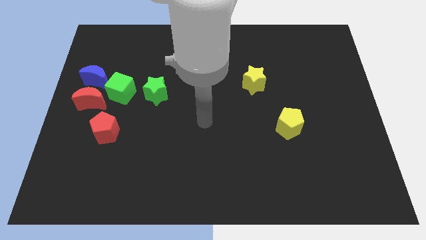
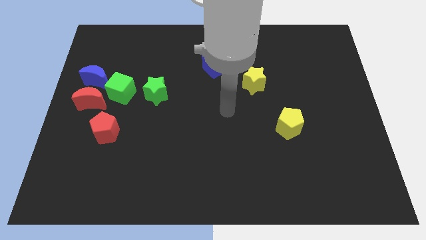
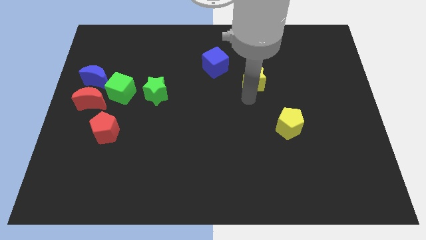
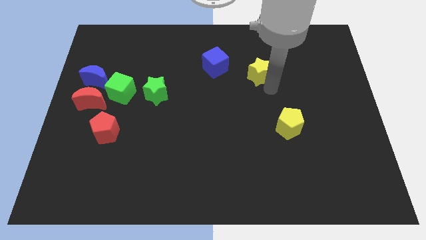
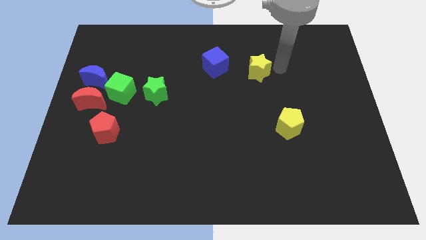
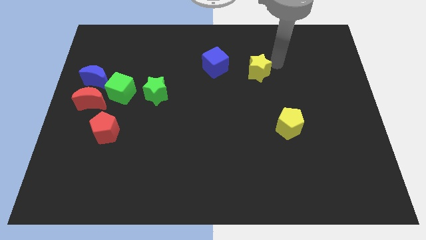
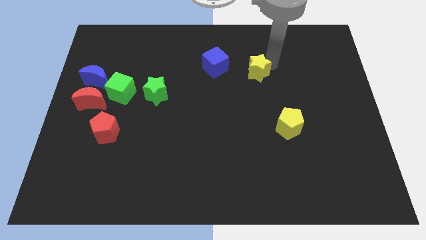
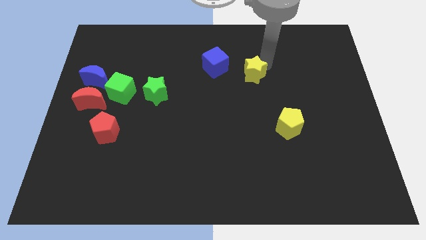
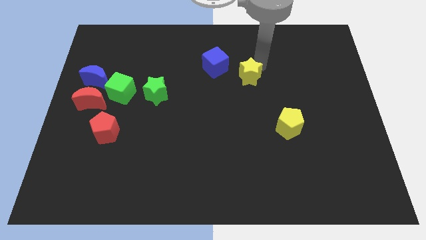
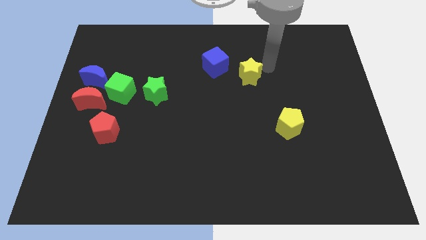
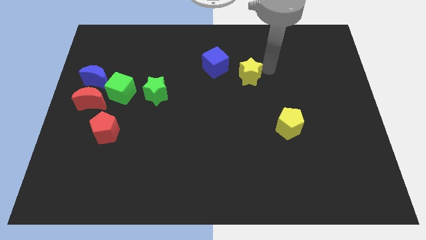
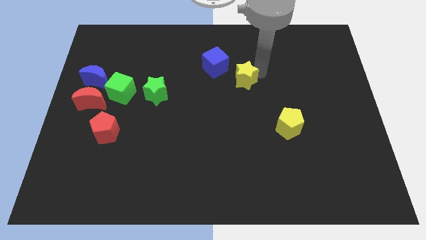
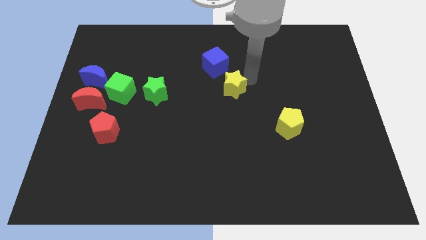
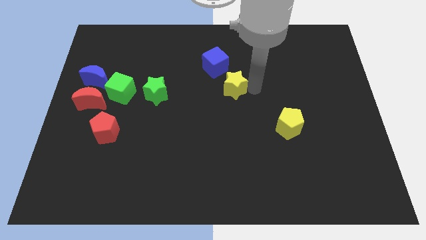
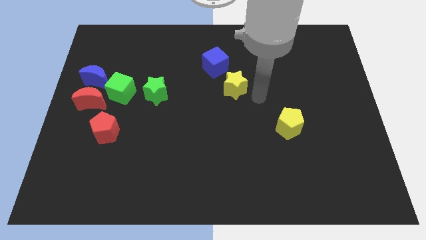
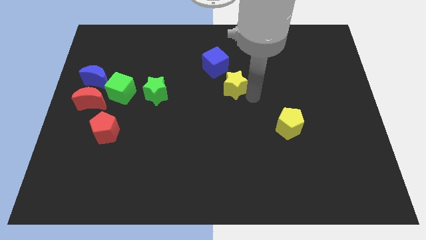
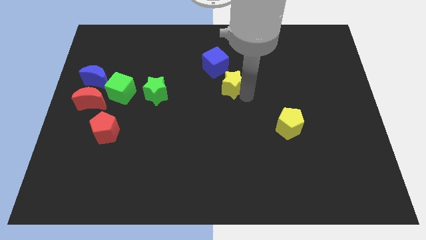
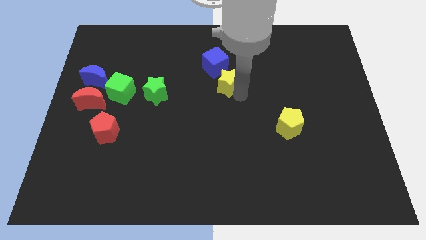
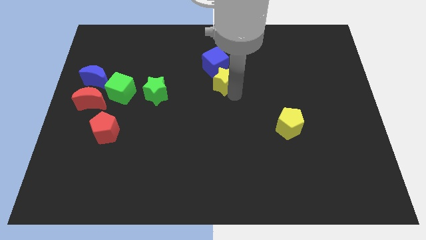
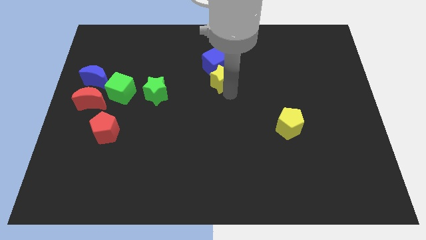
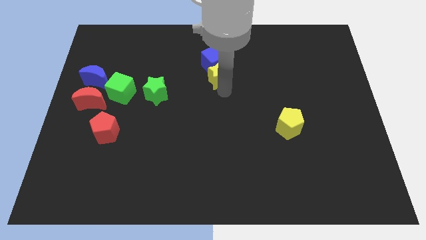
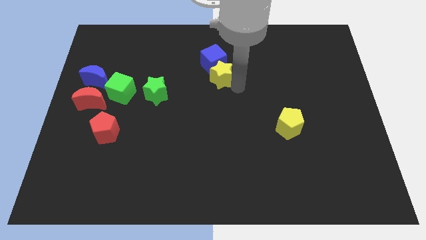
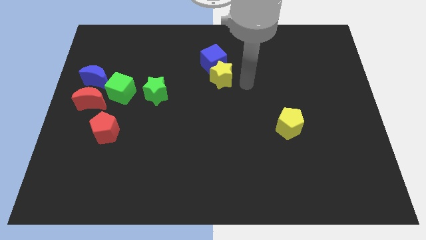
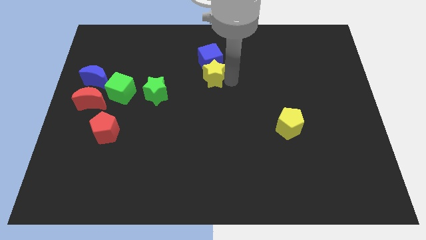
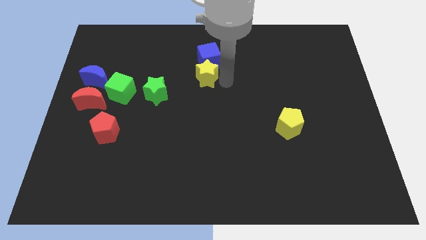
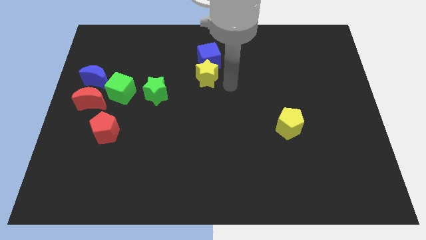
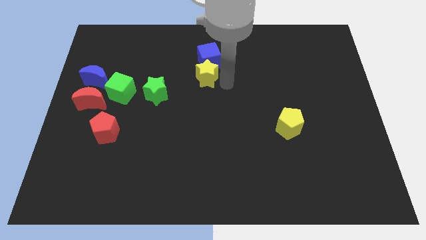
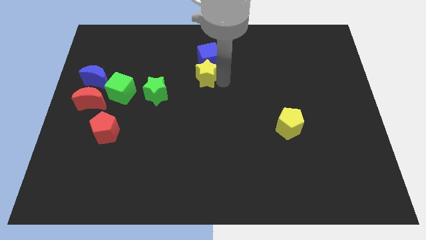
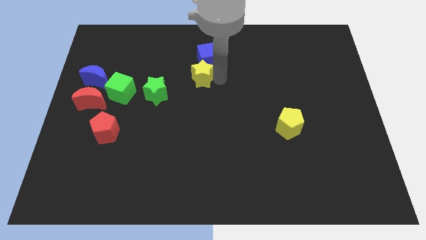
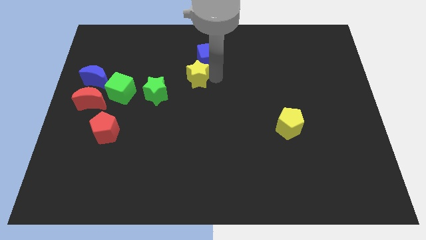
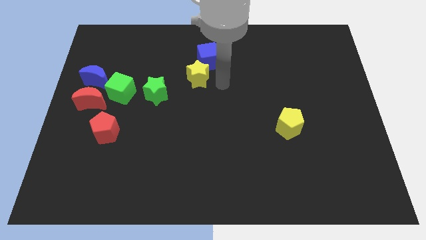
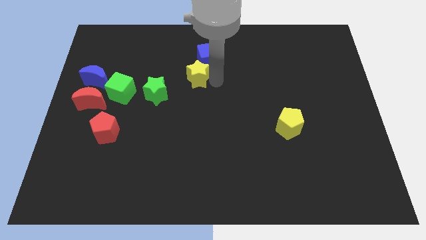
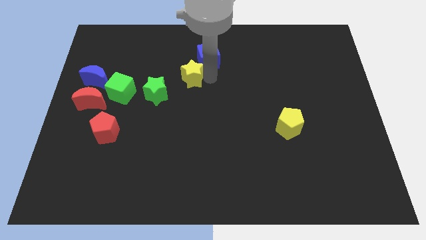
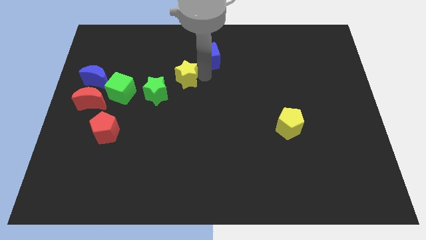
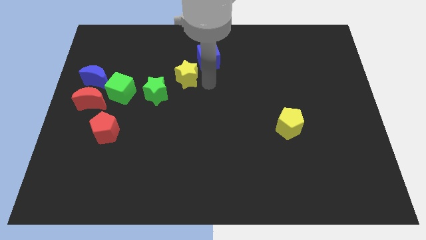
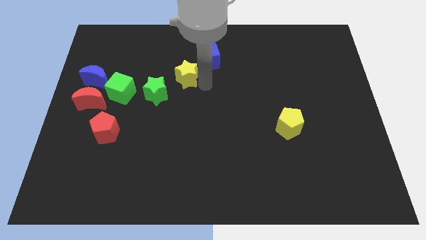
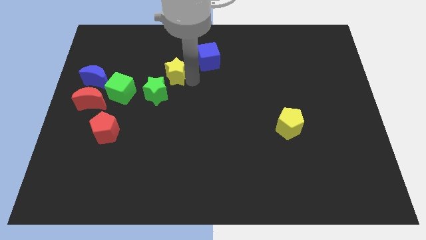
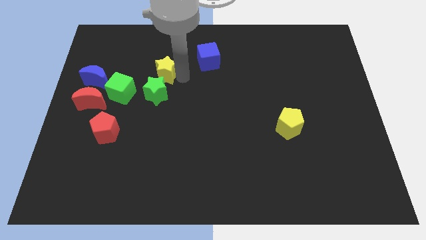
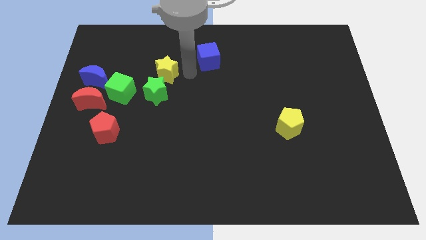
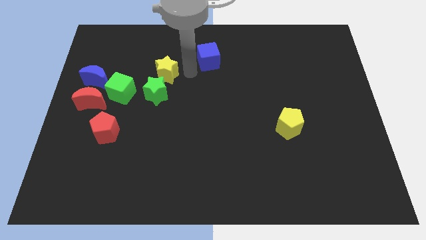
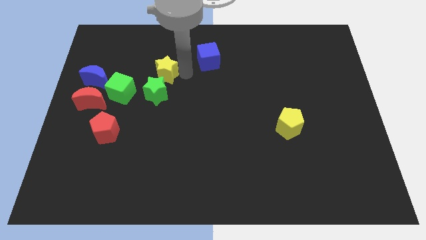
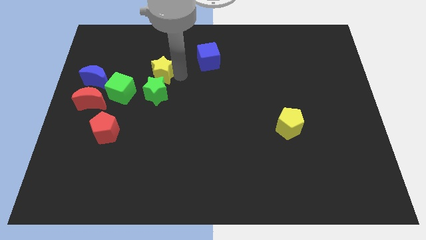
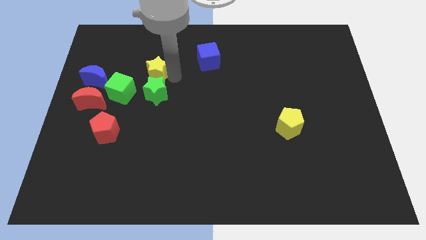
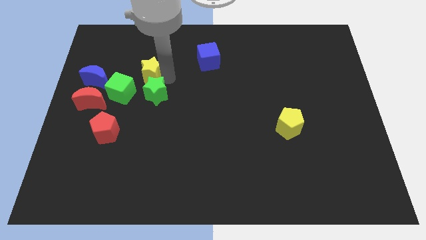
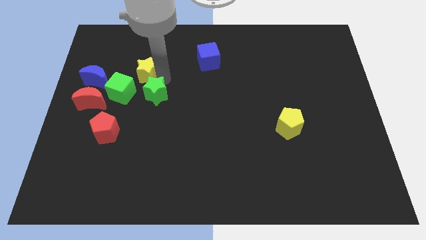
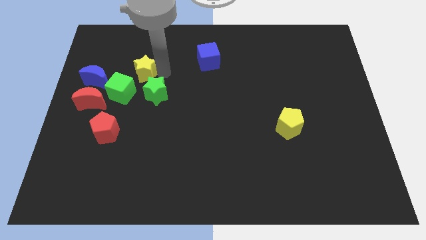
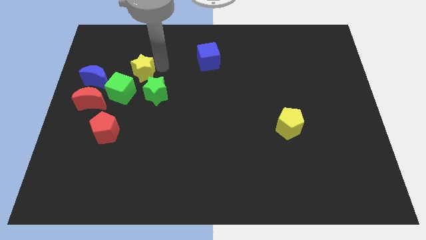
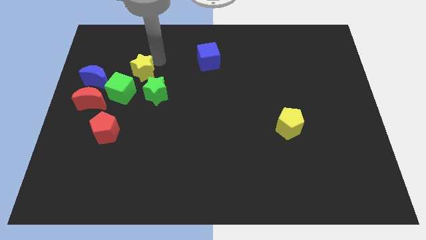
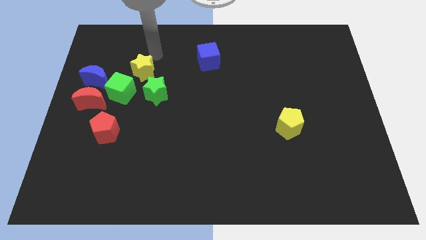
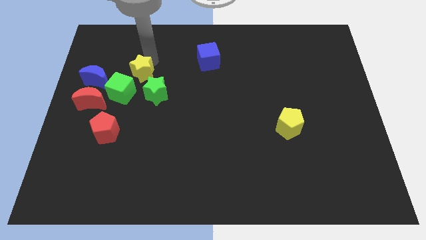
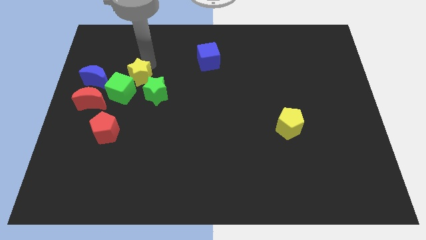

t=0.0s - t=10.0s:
slide the yellow star next to the green cube

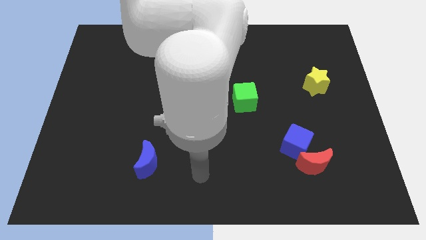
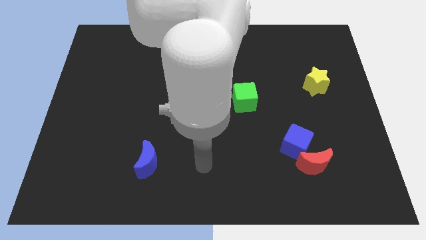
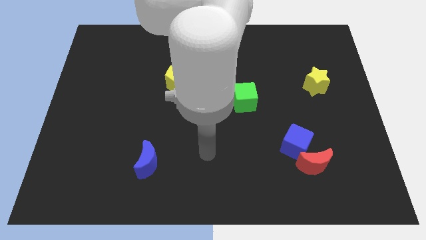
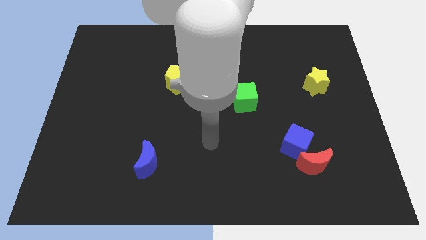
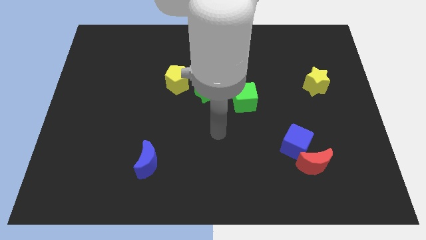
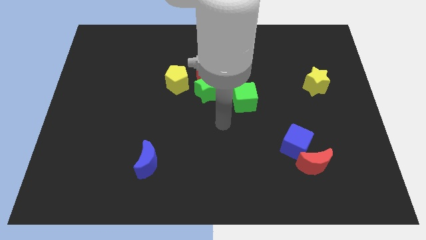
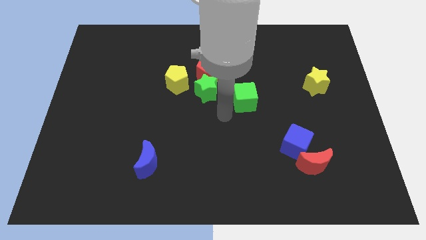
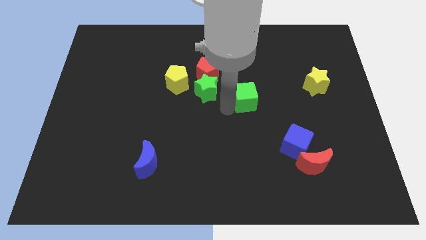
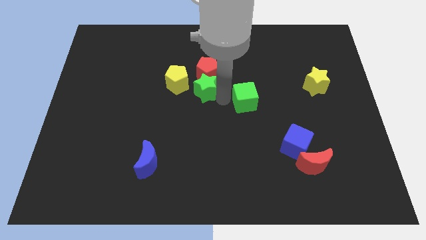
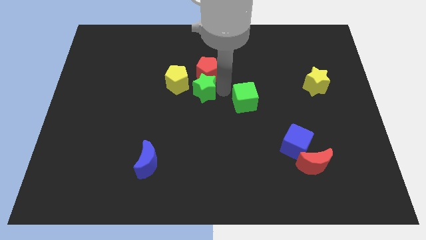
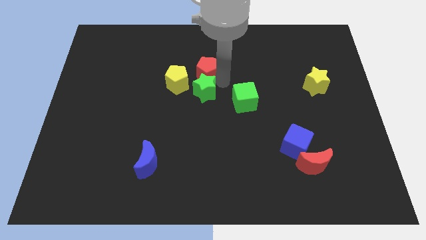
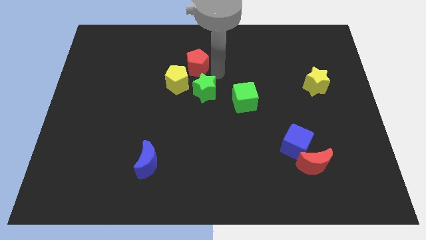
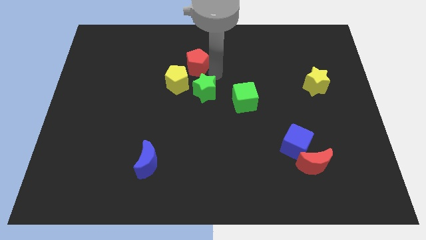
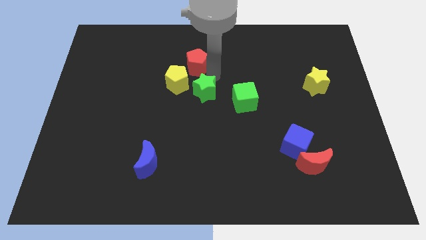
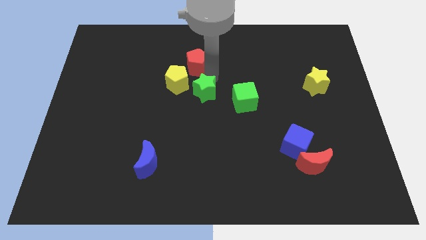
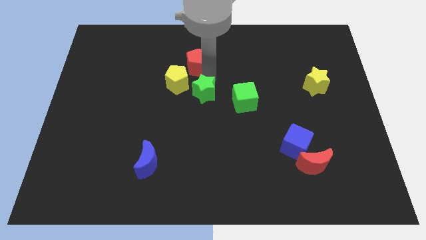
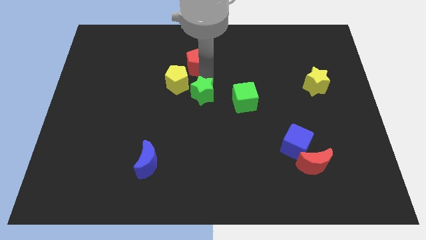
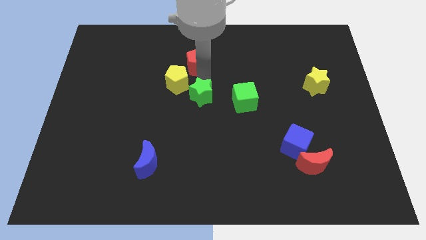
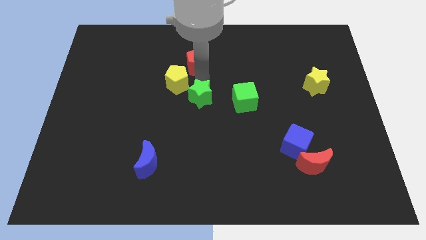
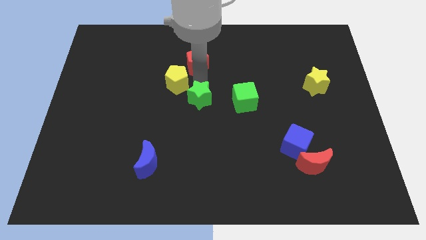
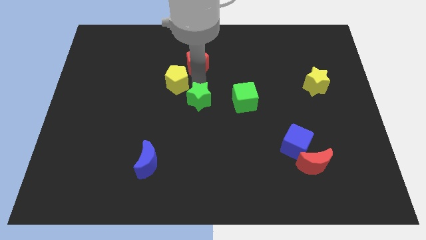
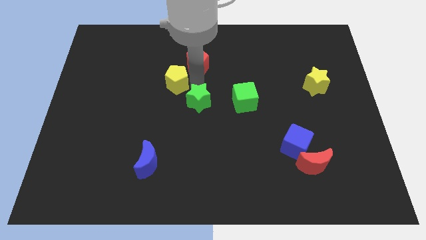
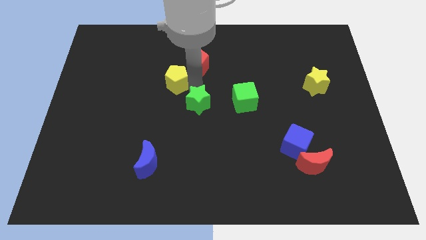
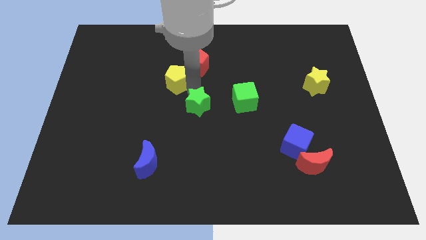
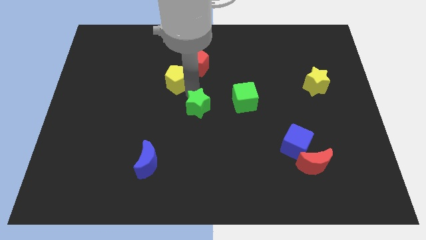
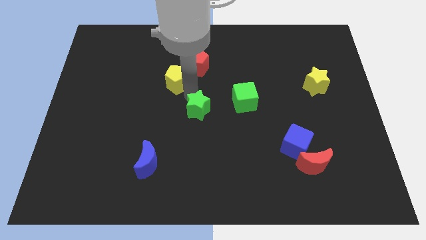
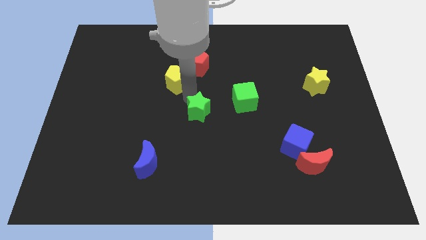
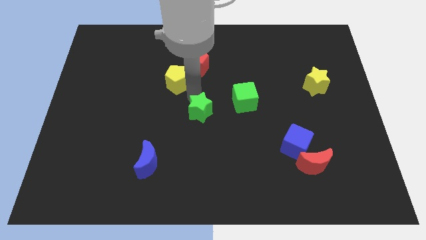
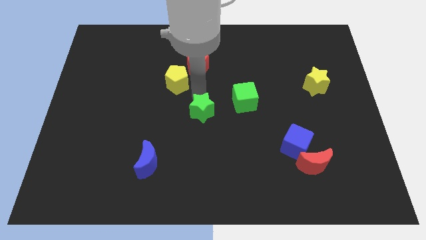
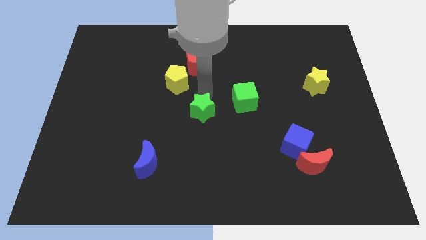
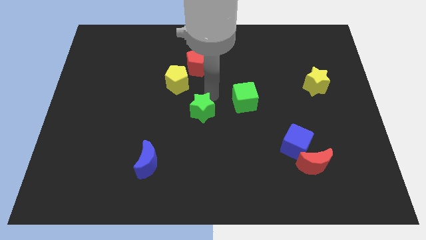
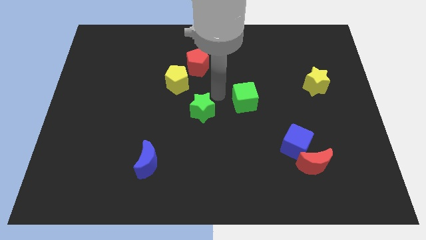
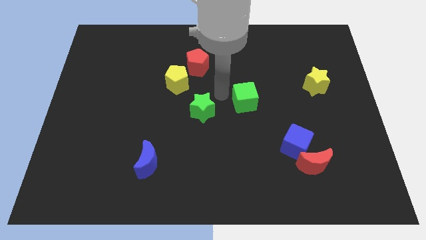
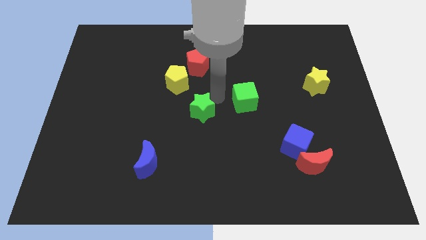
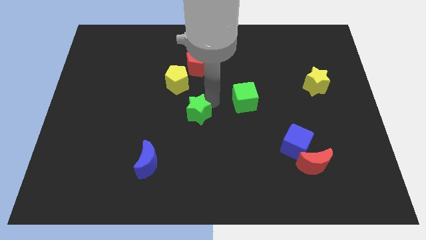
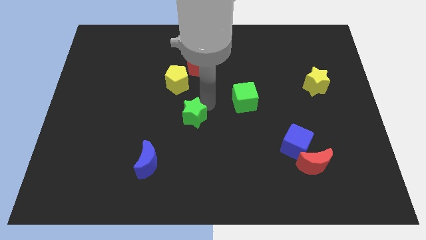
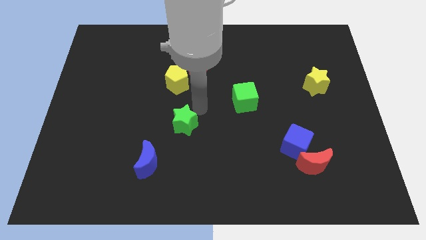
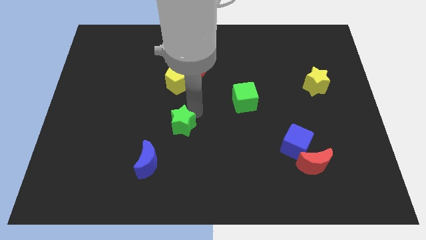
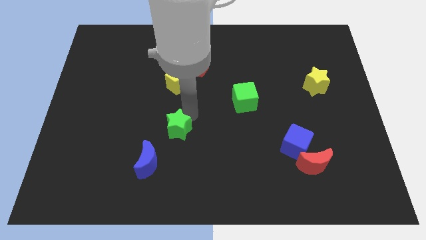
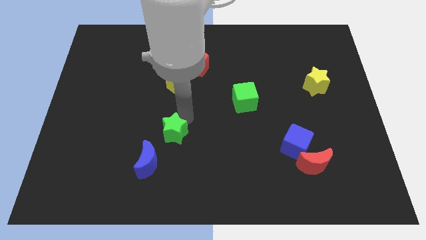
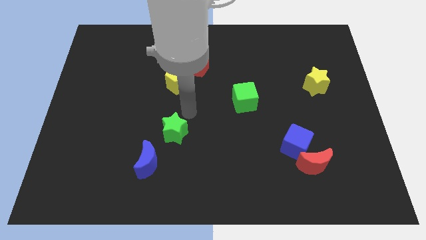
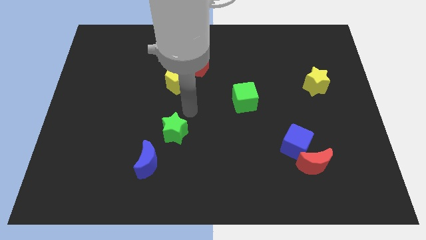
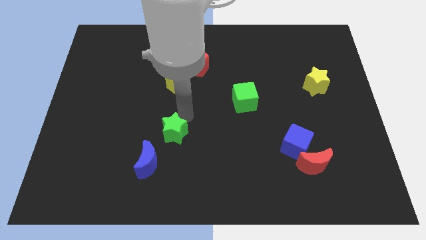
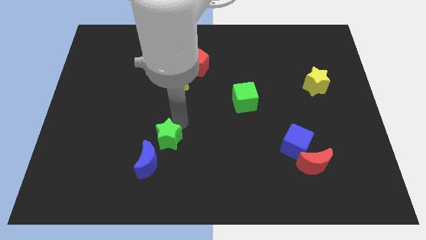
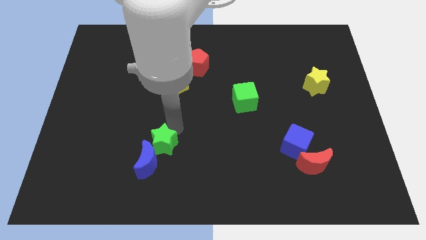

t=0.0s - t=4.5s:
push the green star close to the blue moon
